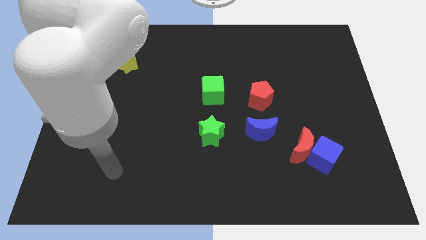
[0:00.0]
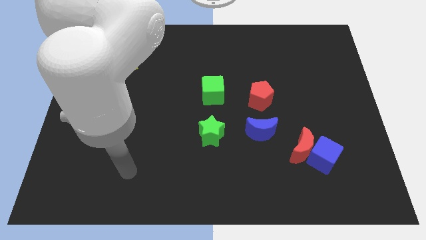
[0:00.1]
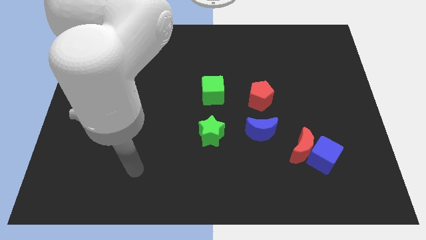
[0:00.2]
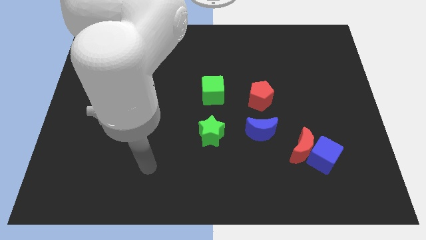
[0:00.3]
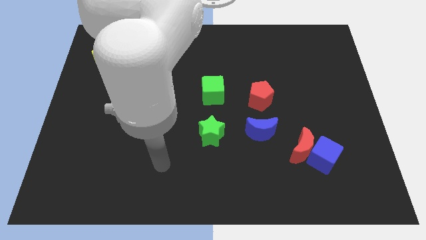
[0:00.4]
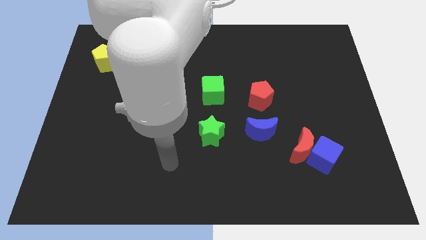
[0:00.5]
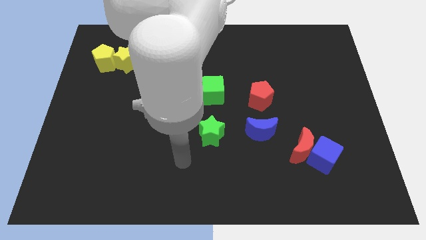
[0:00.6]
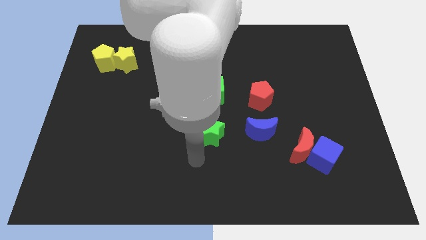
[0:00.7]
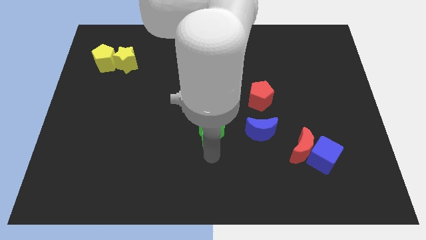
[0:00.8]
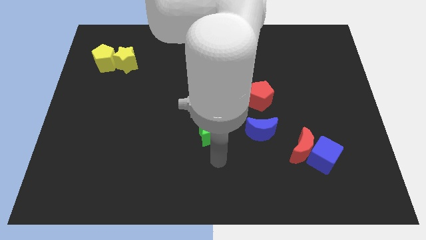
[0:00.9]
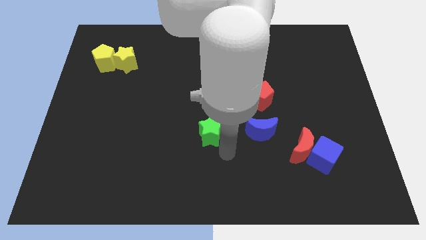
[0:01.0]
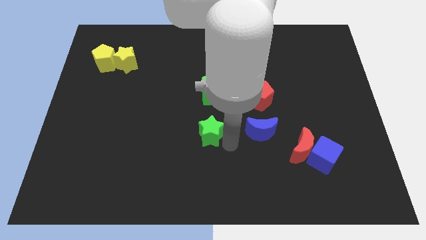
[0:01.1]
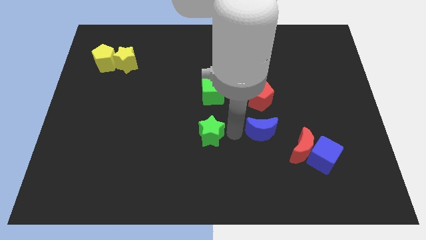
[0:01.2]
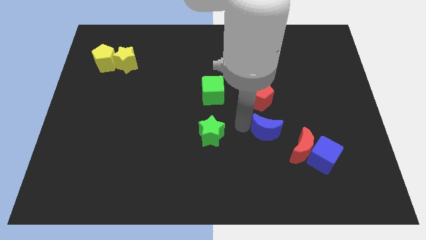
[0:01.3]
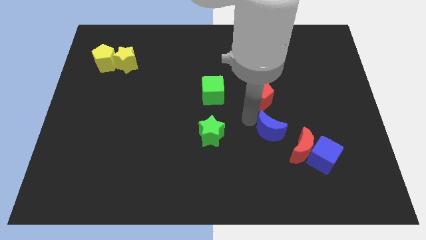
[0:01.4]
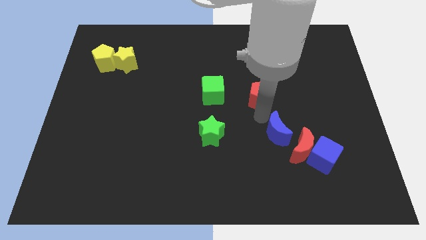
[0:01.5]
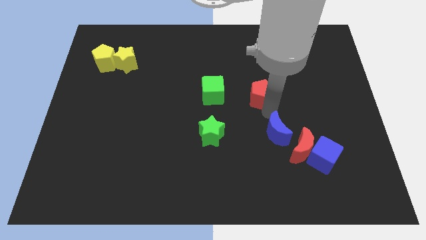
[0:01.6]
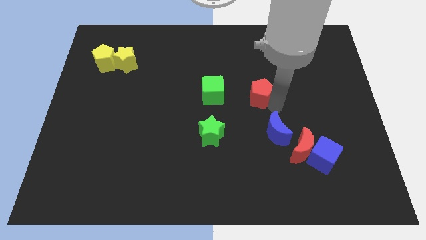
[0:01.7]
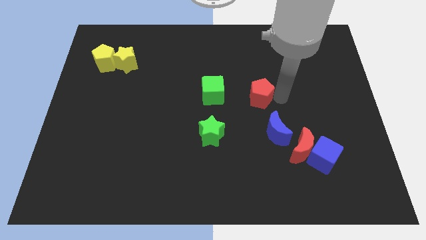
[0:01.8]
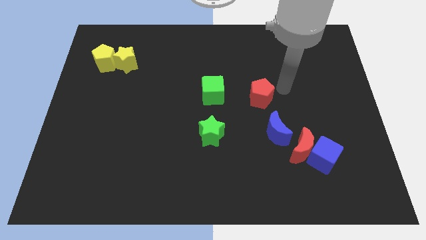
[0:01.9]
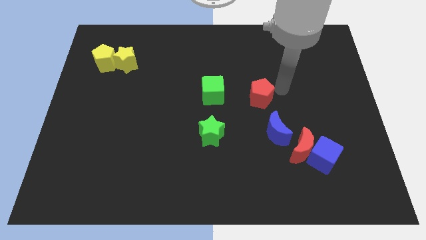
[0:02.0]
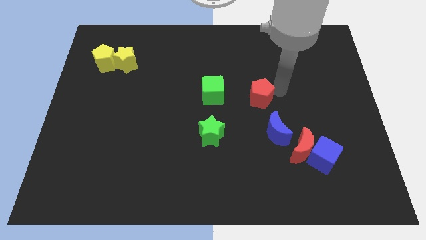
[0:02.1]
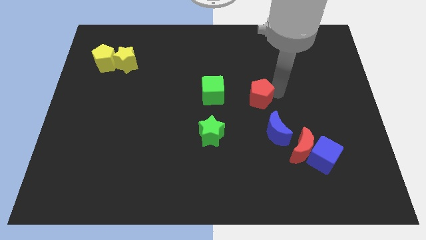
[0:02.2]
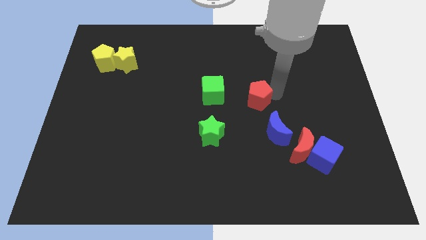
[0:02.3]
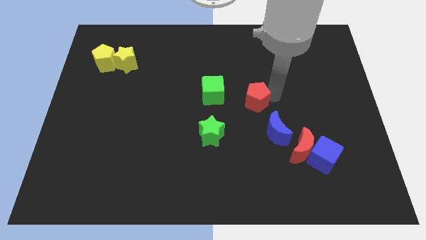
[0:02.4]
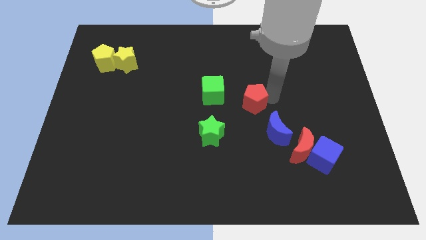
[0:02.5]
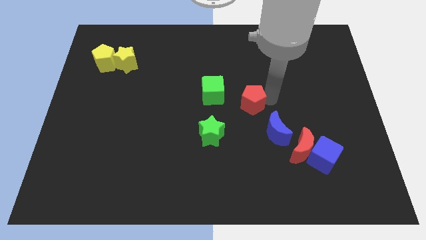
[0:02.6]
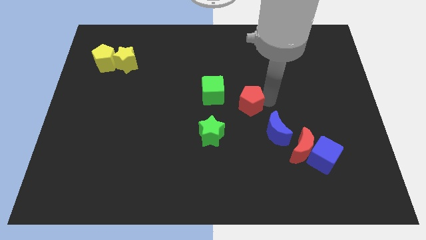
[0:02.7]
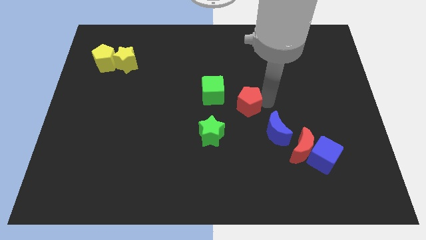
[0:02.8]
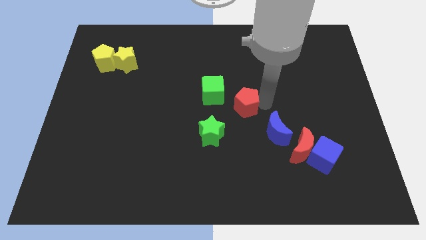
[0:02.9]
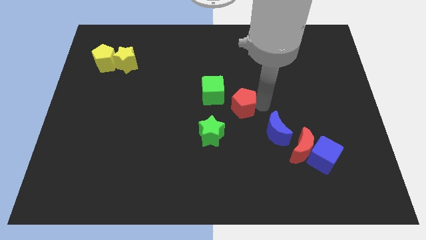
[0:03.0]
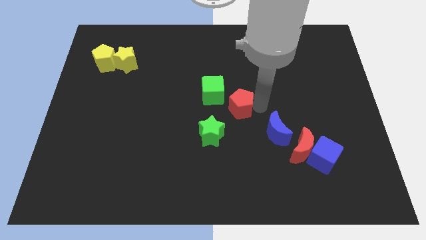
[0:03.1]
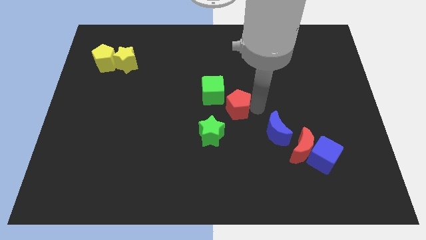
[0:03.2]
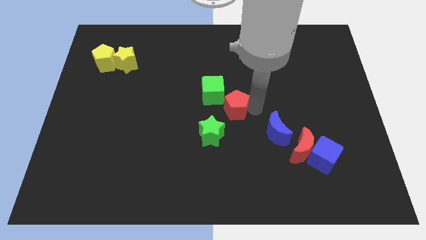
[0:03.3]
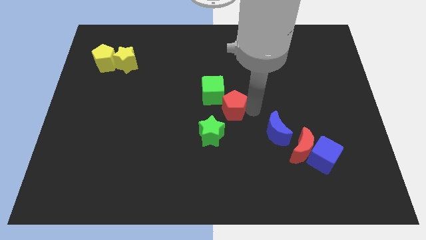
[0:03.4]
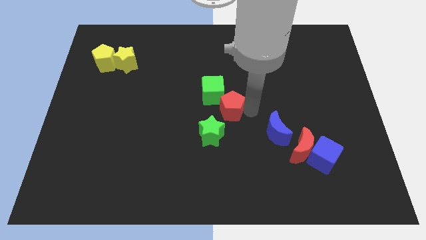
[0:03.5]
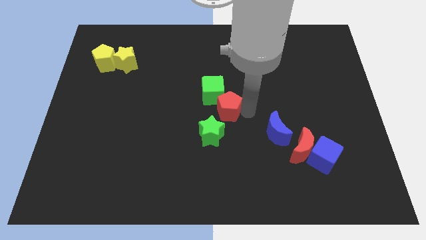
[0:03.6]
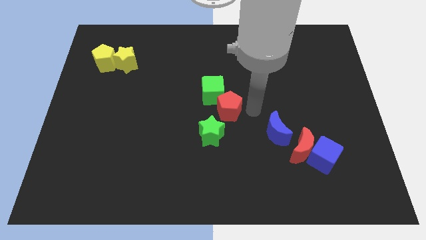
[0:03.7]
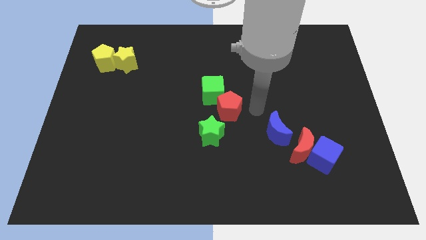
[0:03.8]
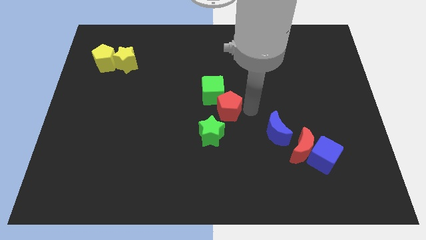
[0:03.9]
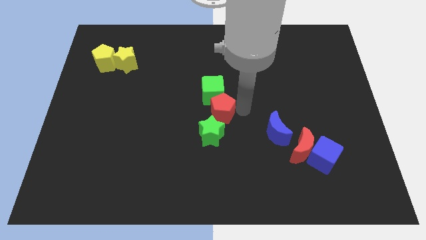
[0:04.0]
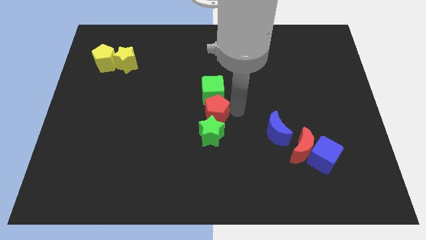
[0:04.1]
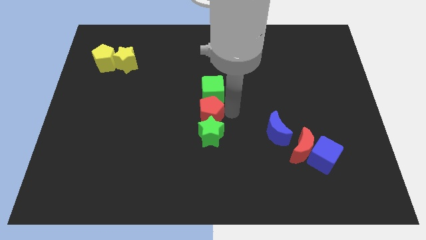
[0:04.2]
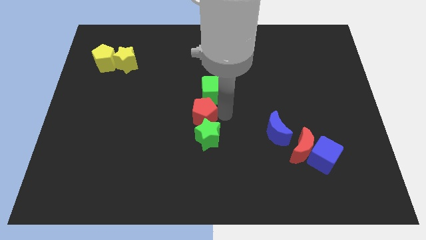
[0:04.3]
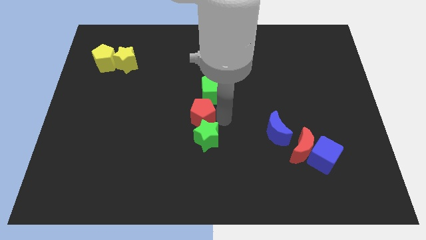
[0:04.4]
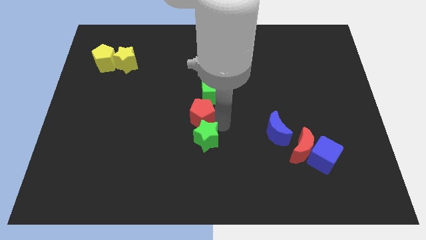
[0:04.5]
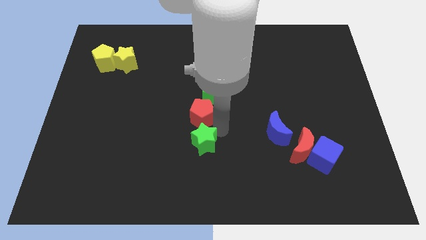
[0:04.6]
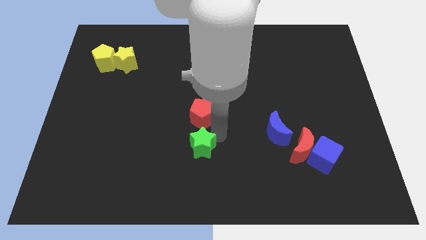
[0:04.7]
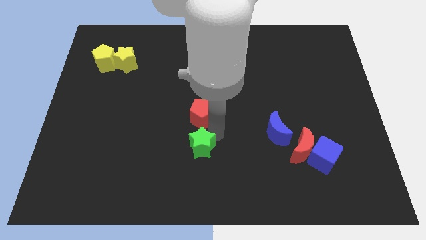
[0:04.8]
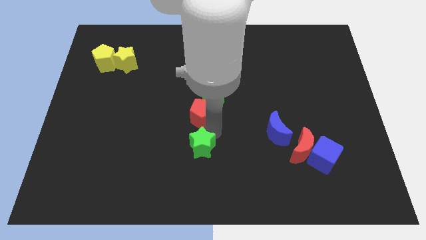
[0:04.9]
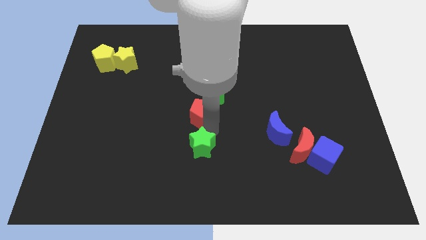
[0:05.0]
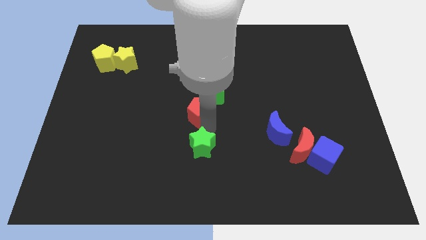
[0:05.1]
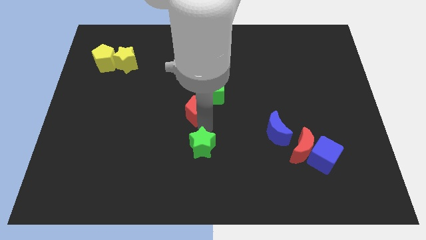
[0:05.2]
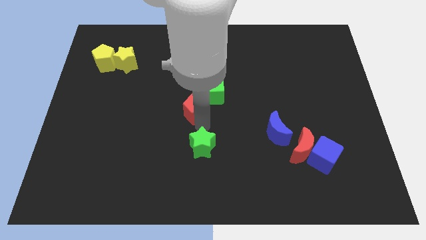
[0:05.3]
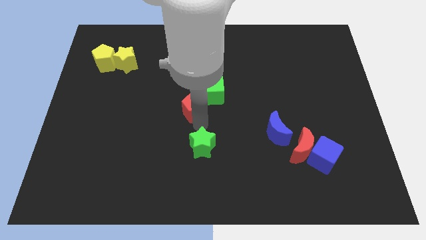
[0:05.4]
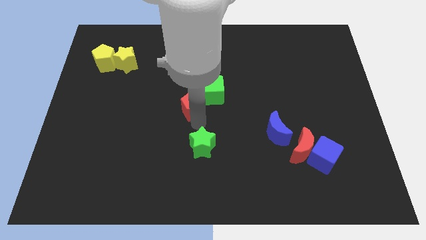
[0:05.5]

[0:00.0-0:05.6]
push the red pentagon just left of the green cube

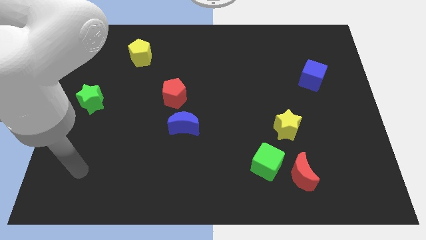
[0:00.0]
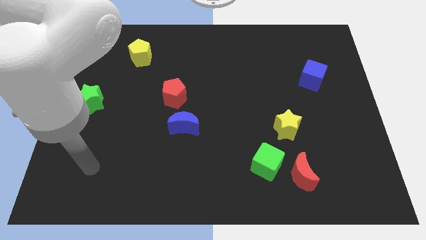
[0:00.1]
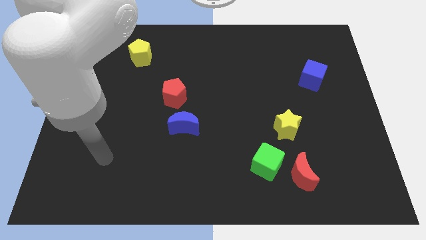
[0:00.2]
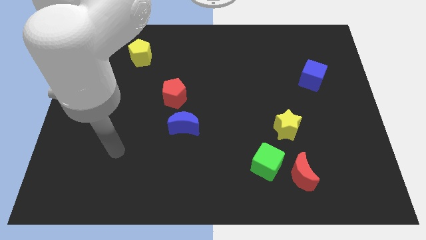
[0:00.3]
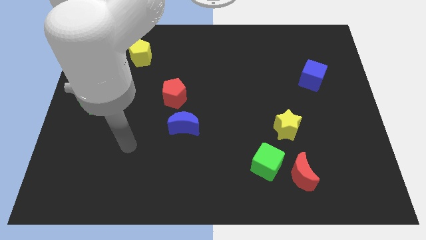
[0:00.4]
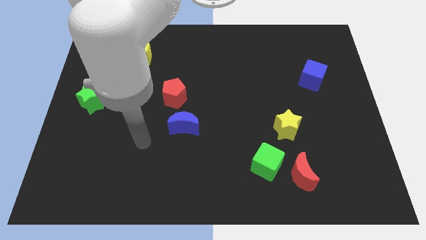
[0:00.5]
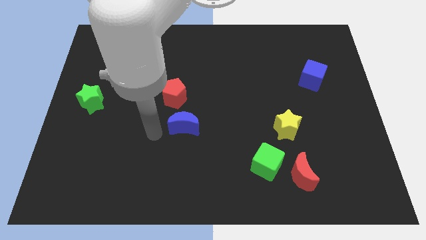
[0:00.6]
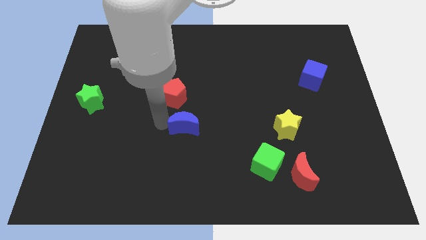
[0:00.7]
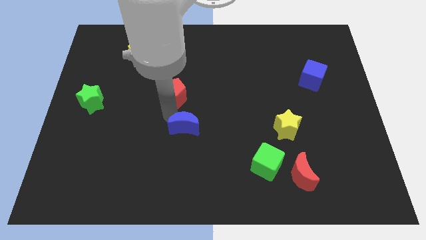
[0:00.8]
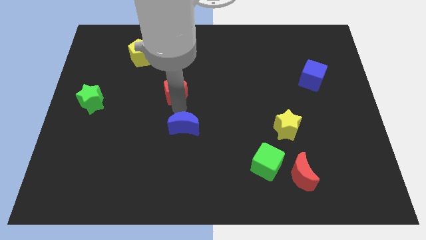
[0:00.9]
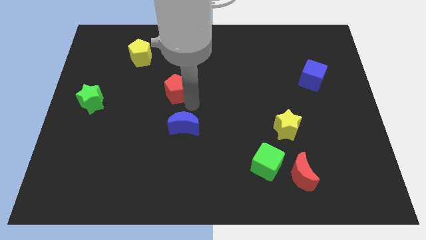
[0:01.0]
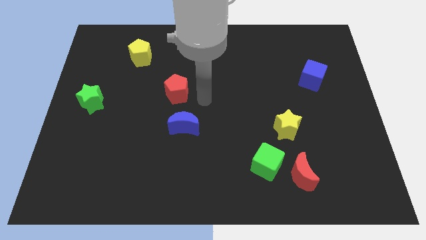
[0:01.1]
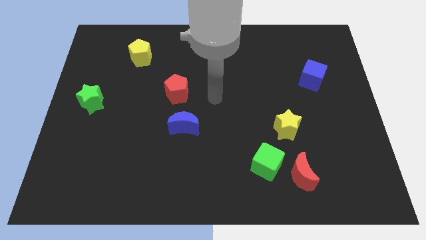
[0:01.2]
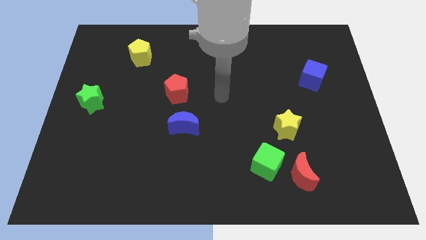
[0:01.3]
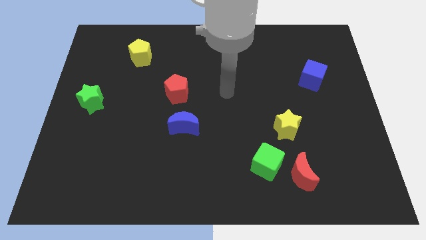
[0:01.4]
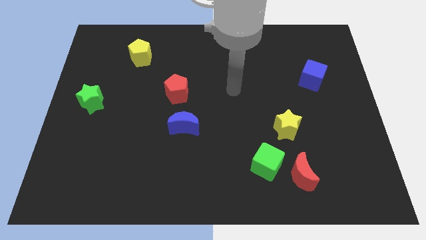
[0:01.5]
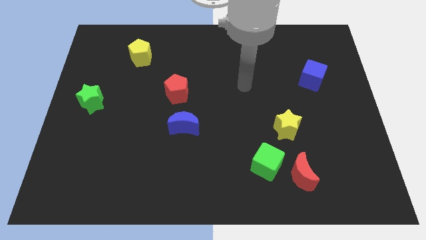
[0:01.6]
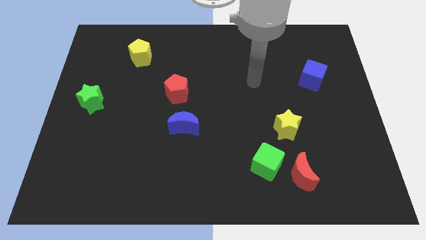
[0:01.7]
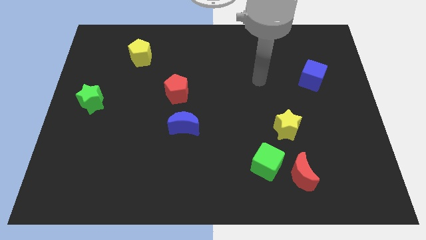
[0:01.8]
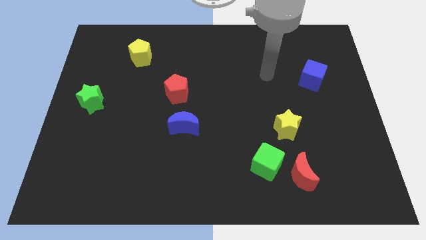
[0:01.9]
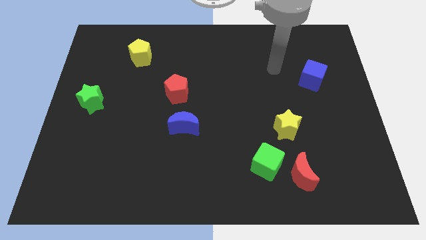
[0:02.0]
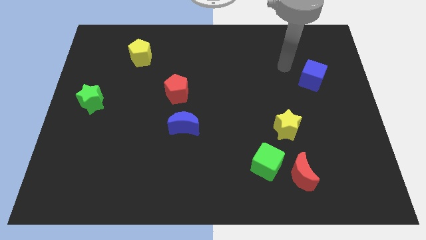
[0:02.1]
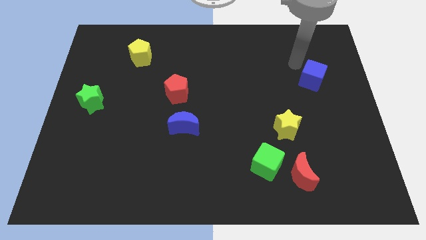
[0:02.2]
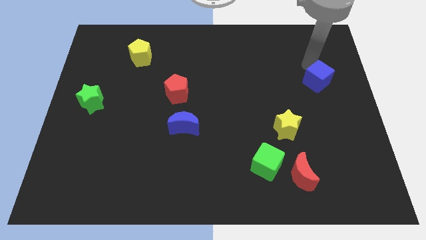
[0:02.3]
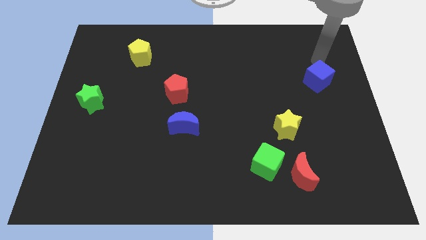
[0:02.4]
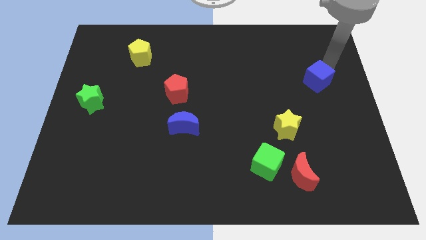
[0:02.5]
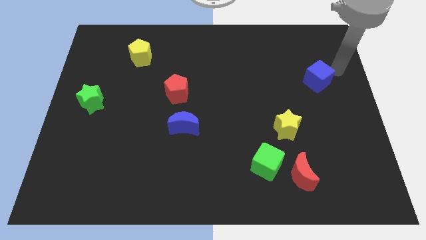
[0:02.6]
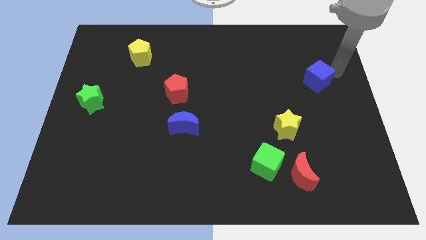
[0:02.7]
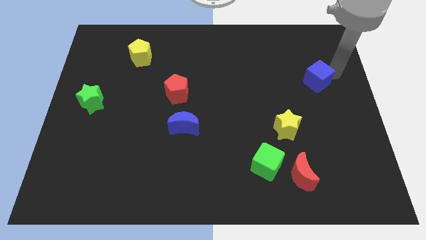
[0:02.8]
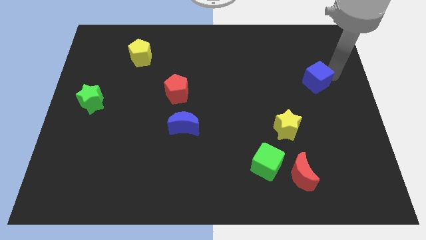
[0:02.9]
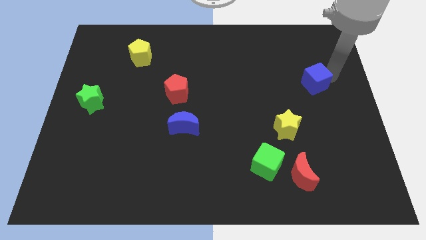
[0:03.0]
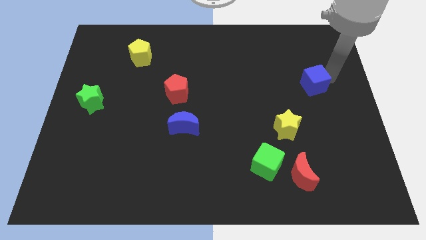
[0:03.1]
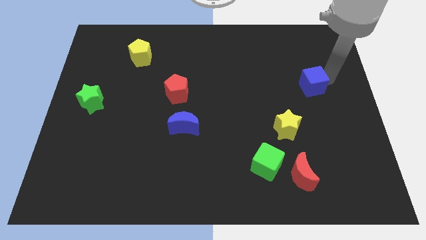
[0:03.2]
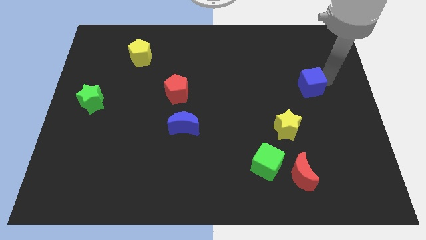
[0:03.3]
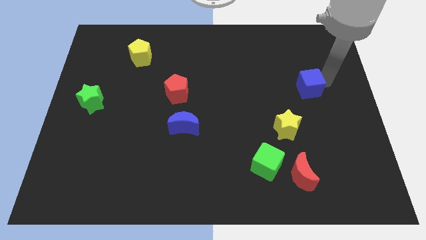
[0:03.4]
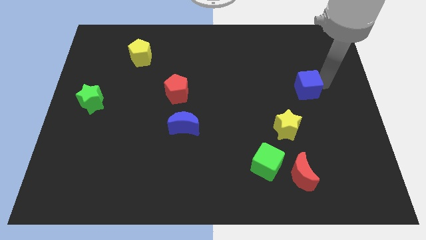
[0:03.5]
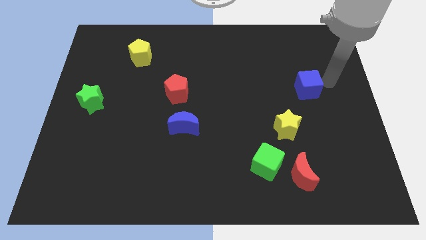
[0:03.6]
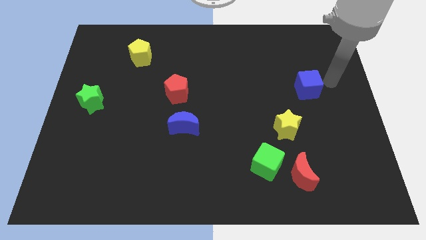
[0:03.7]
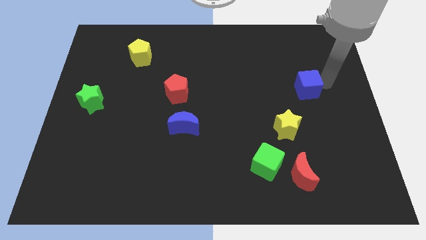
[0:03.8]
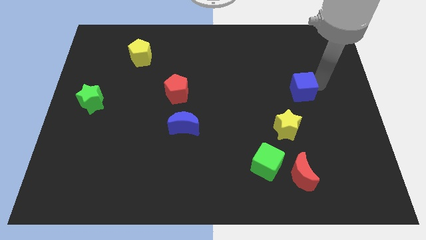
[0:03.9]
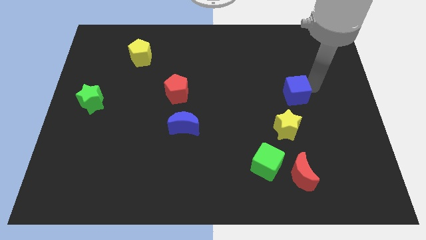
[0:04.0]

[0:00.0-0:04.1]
push the blue cube above the yellow star
